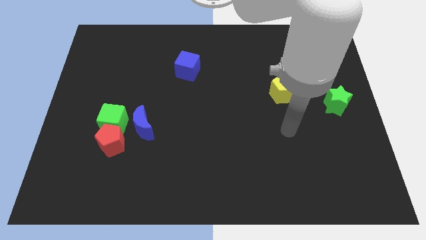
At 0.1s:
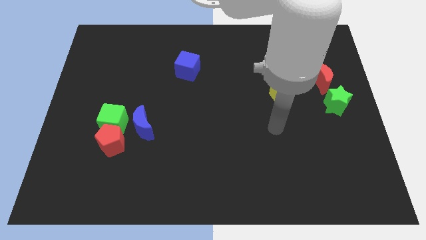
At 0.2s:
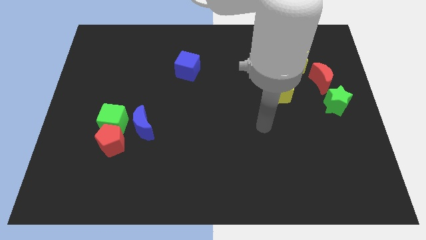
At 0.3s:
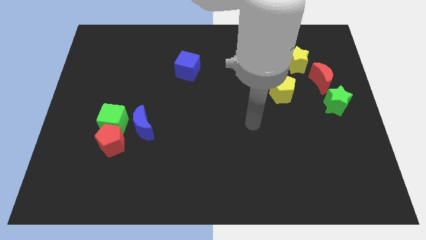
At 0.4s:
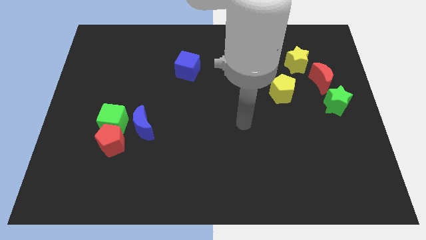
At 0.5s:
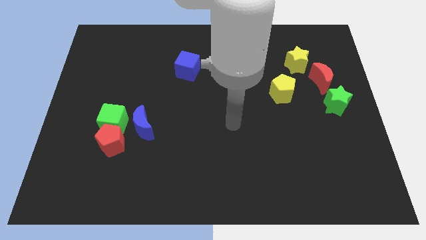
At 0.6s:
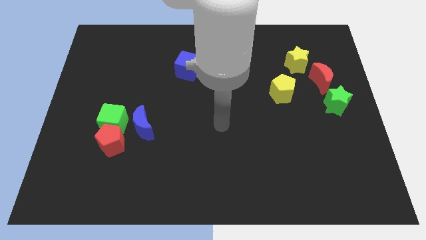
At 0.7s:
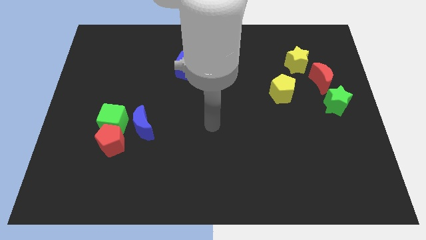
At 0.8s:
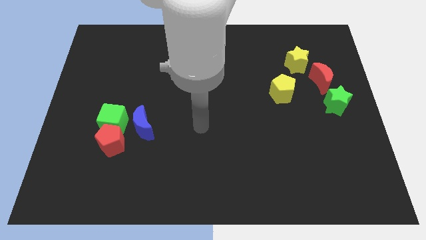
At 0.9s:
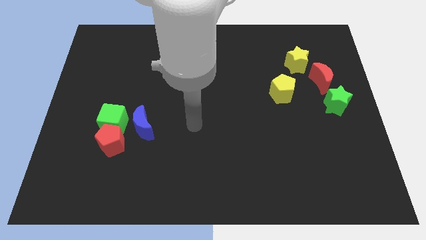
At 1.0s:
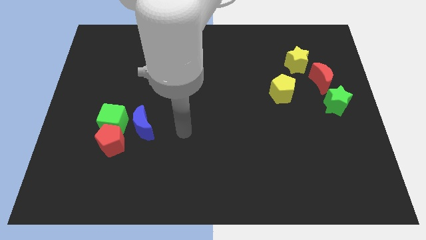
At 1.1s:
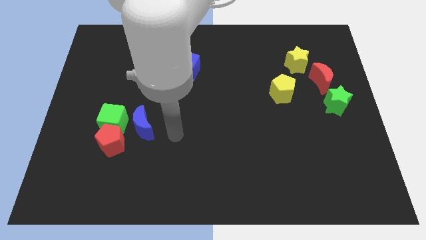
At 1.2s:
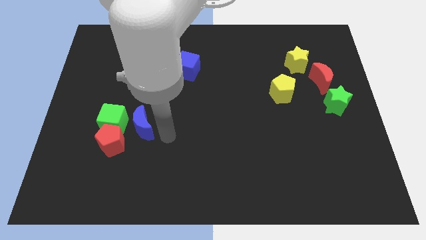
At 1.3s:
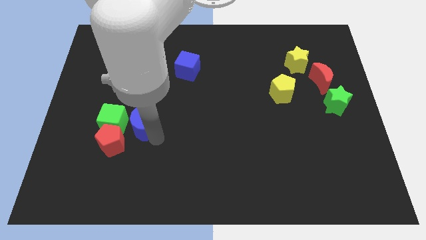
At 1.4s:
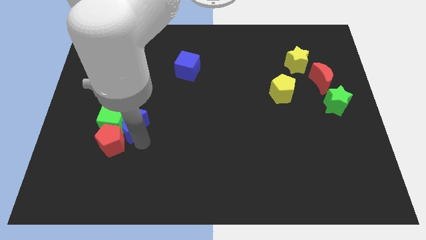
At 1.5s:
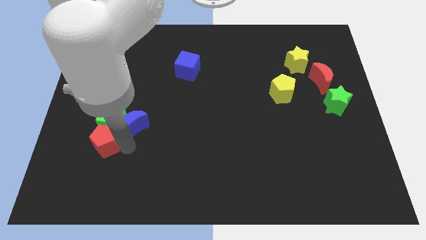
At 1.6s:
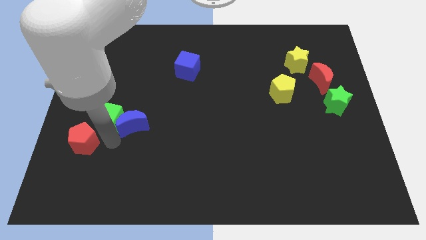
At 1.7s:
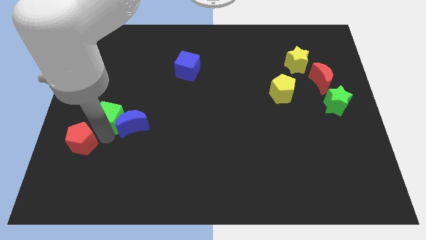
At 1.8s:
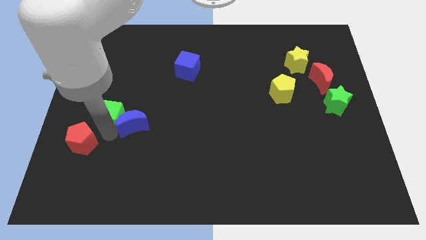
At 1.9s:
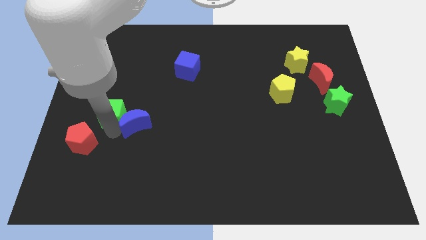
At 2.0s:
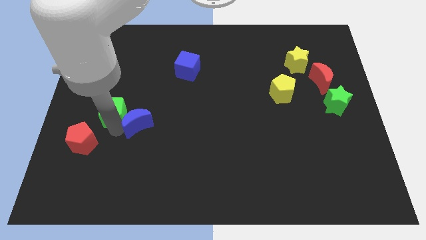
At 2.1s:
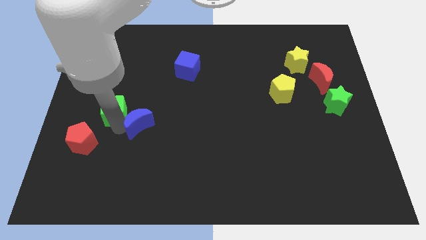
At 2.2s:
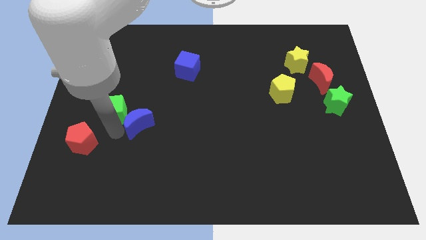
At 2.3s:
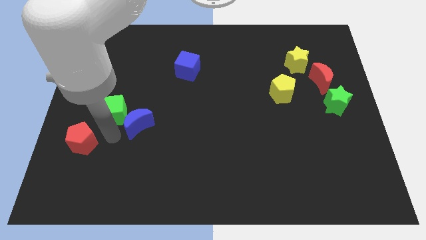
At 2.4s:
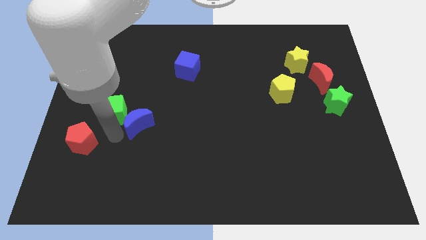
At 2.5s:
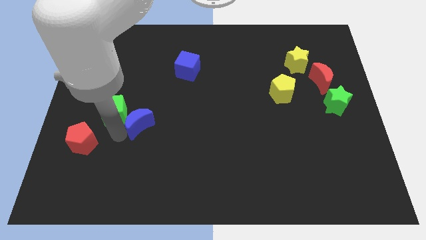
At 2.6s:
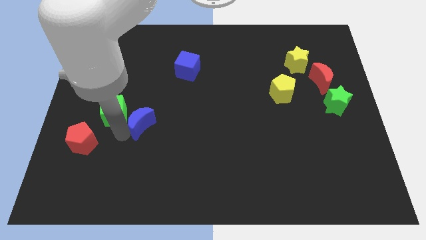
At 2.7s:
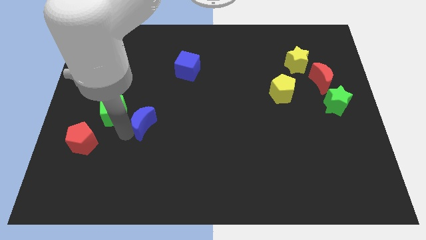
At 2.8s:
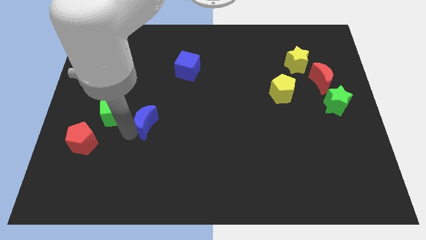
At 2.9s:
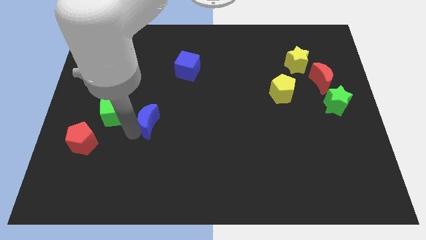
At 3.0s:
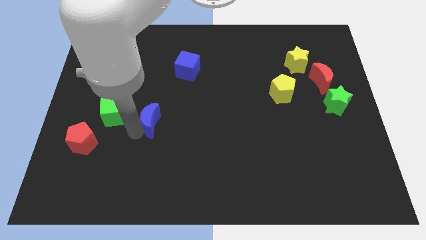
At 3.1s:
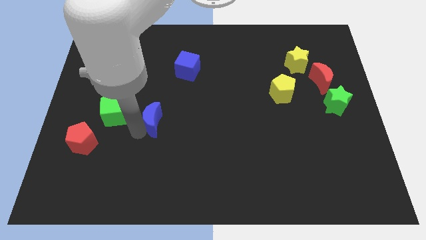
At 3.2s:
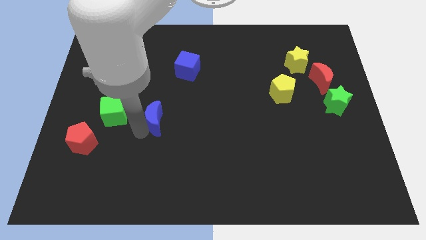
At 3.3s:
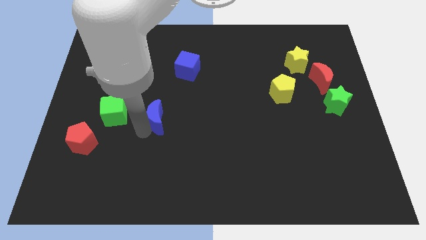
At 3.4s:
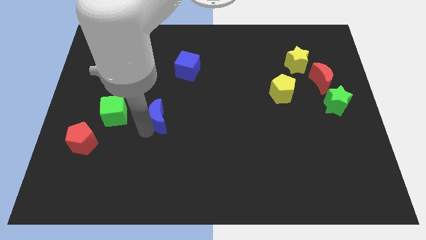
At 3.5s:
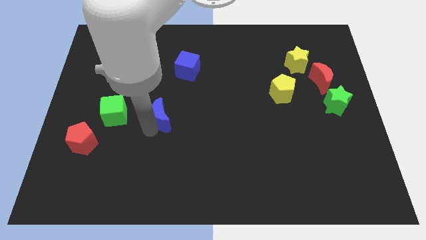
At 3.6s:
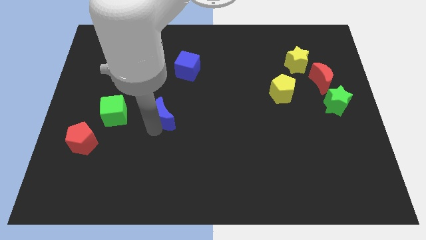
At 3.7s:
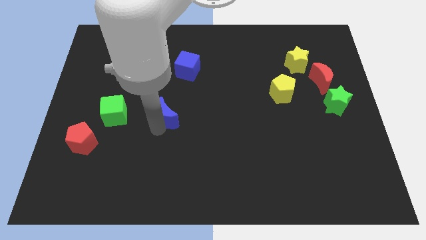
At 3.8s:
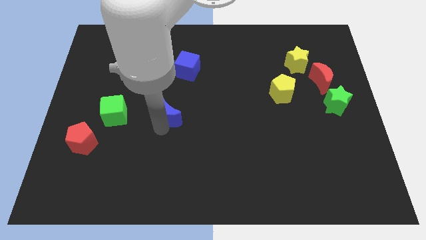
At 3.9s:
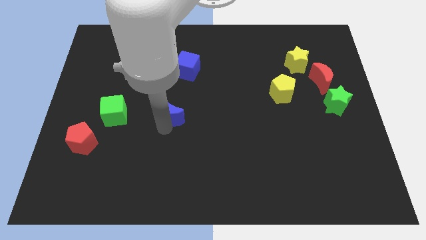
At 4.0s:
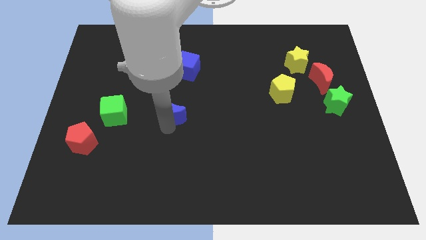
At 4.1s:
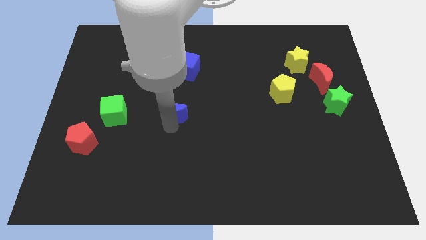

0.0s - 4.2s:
move the blue moon upwards and then to the right somewhat

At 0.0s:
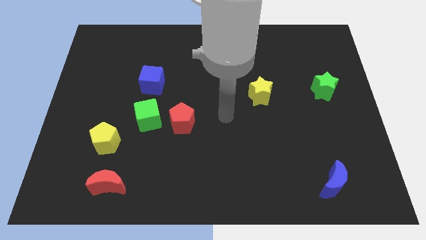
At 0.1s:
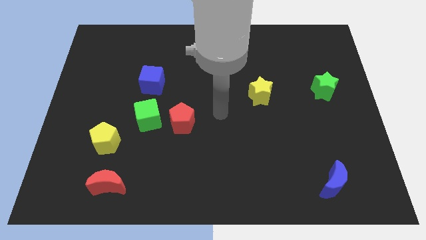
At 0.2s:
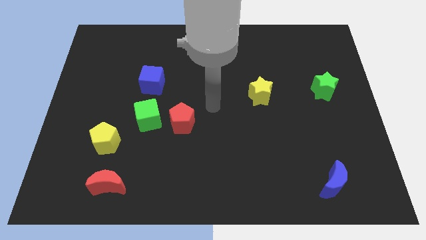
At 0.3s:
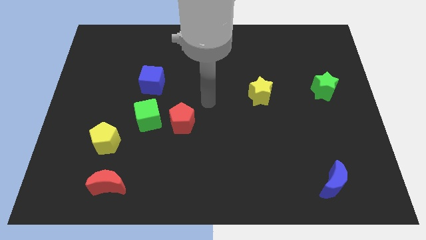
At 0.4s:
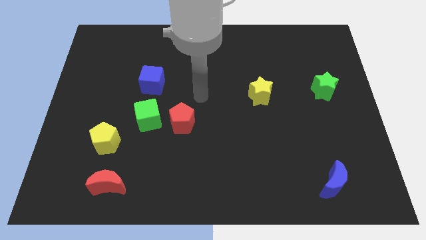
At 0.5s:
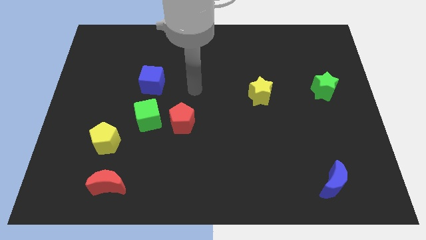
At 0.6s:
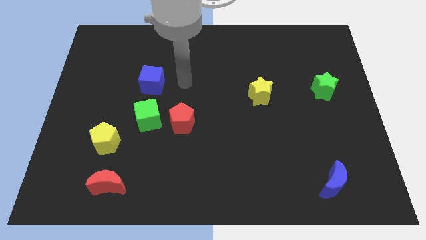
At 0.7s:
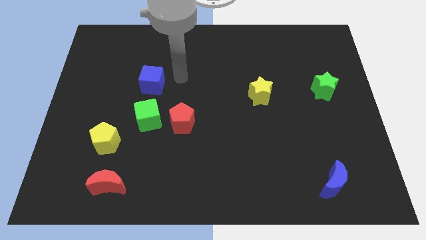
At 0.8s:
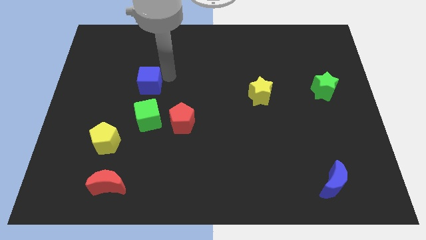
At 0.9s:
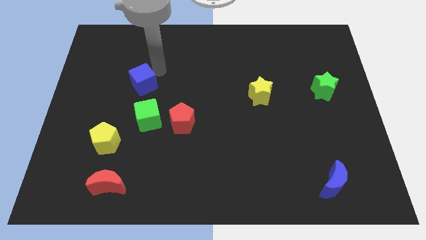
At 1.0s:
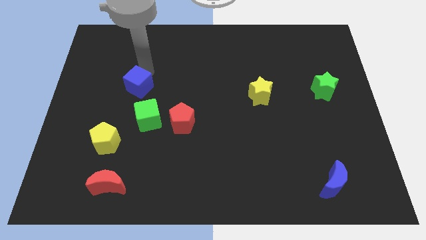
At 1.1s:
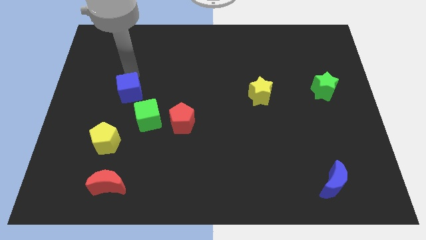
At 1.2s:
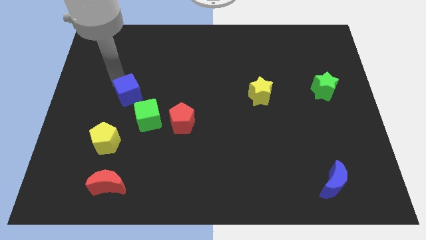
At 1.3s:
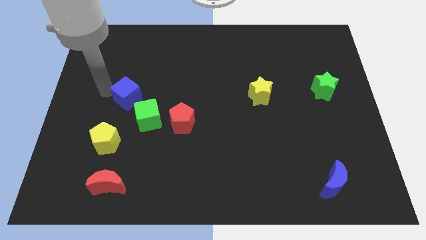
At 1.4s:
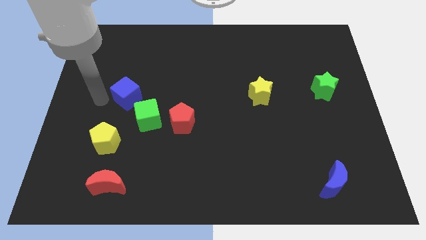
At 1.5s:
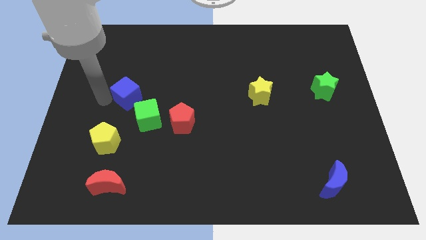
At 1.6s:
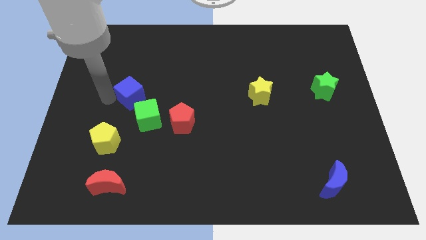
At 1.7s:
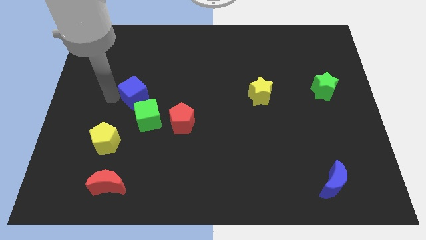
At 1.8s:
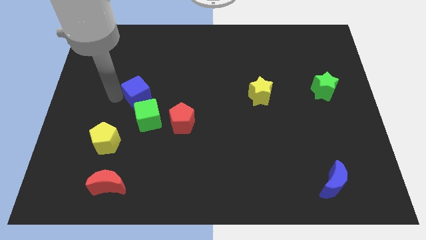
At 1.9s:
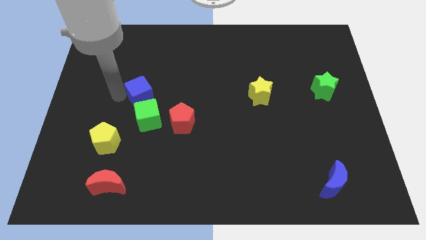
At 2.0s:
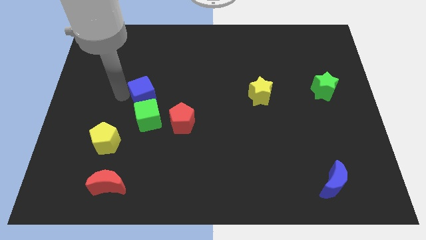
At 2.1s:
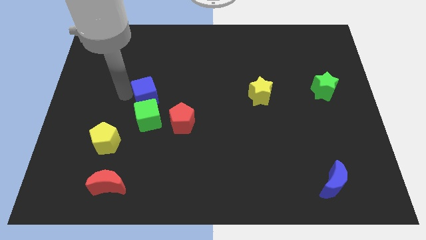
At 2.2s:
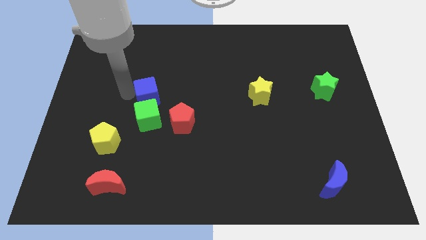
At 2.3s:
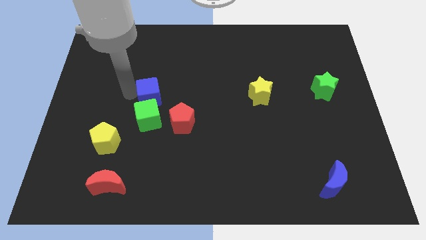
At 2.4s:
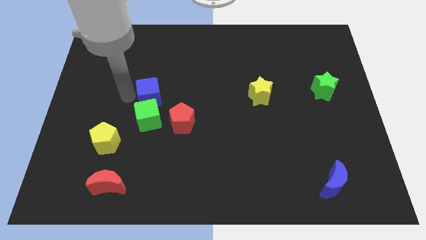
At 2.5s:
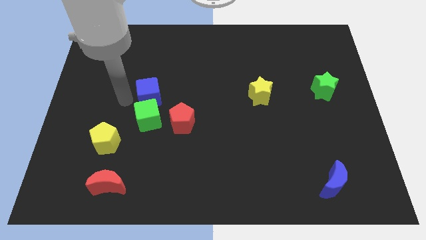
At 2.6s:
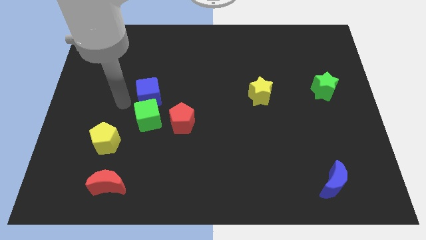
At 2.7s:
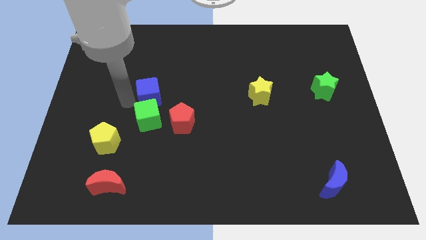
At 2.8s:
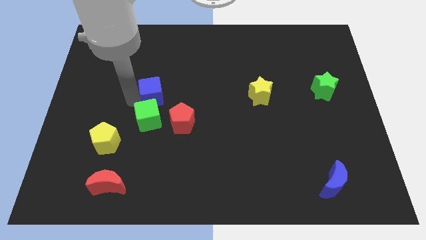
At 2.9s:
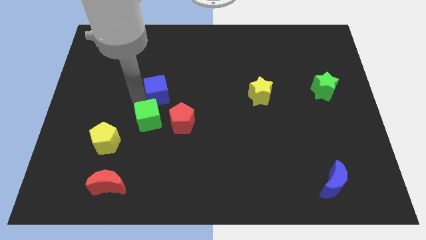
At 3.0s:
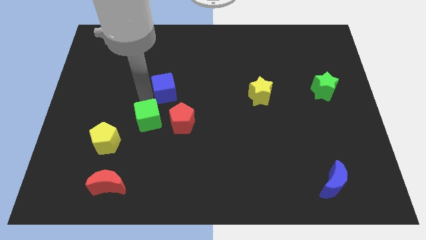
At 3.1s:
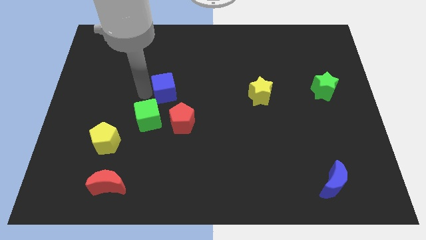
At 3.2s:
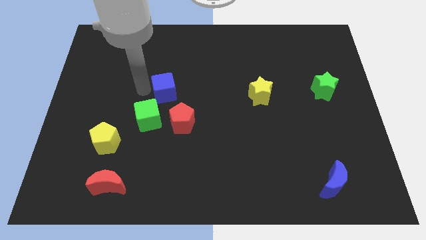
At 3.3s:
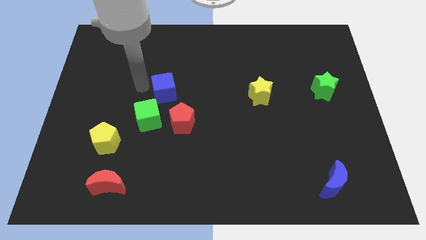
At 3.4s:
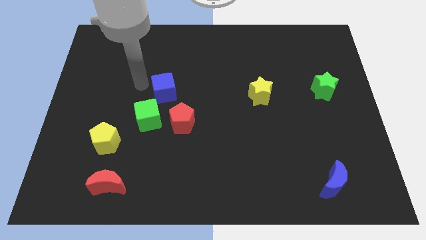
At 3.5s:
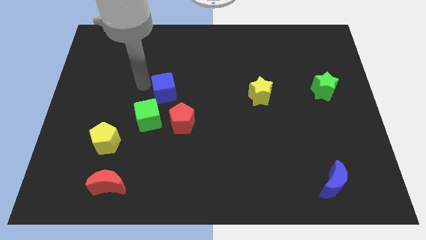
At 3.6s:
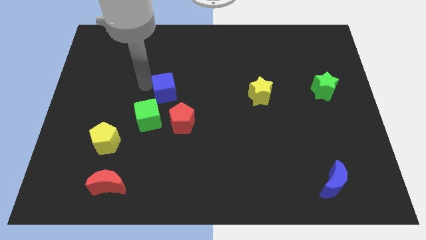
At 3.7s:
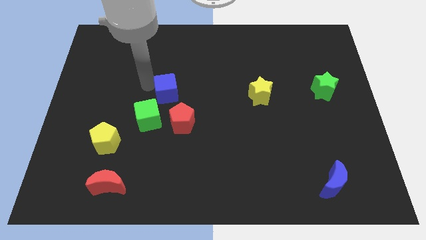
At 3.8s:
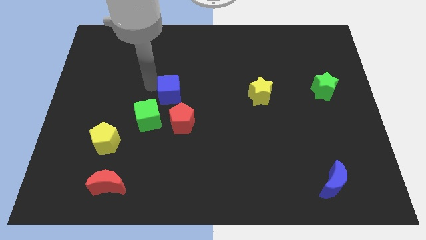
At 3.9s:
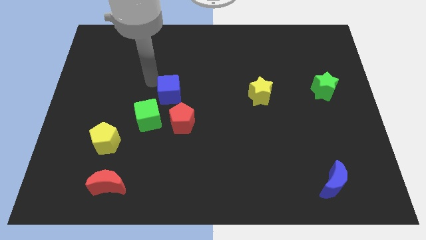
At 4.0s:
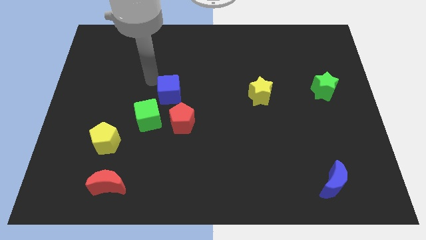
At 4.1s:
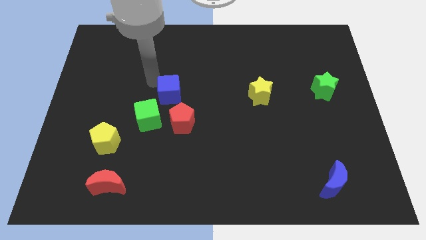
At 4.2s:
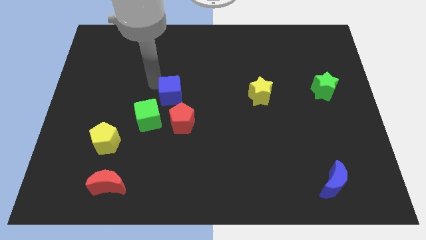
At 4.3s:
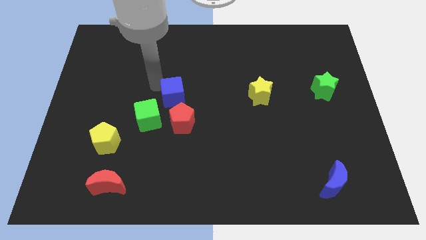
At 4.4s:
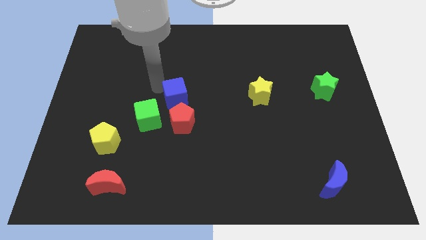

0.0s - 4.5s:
push the blue cube diagonally downwards and to the right a little bit

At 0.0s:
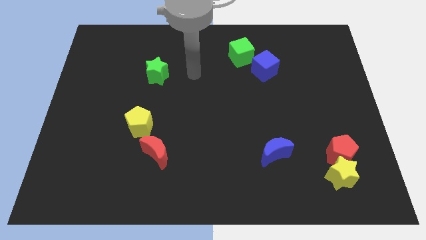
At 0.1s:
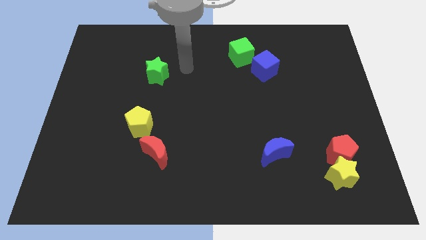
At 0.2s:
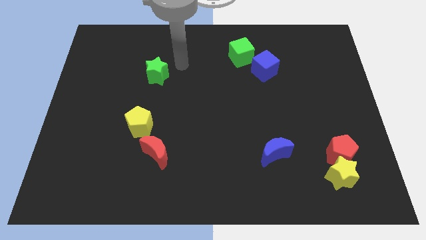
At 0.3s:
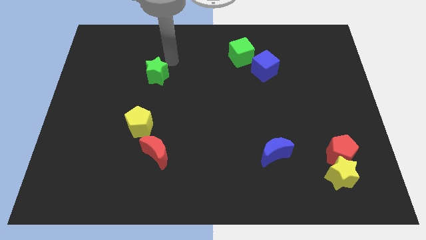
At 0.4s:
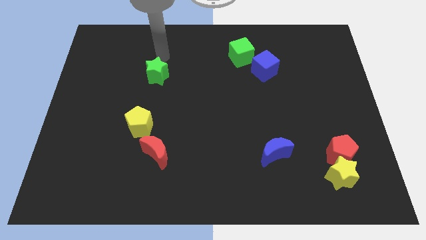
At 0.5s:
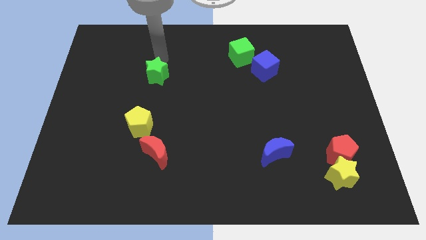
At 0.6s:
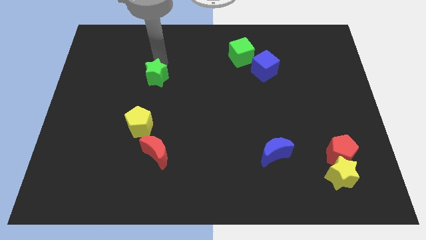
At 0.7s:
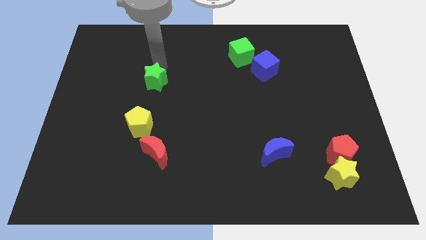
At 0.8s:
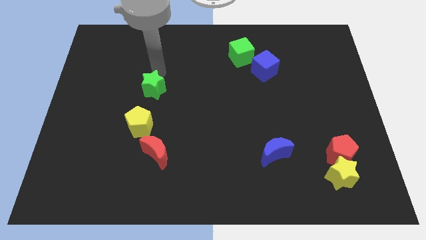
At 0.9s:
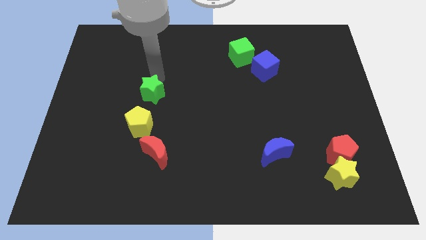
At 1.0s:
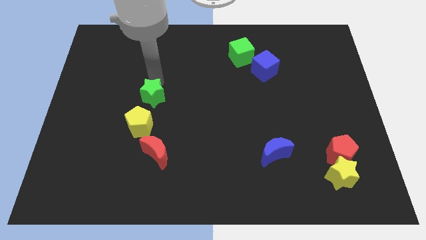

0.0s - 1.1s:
move the green star down a little bit
